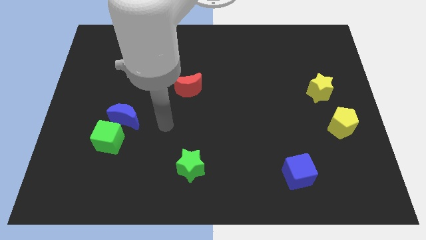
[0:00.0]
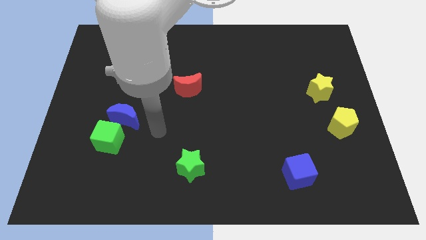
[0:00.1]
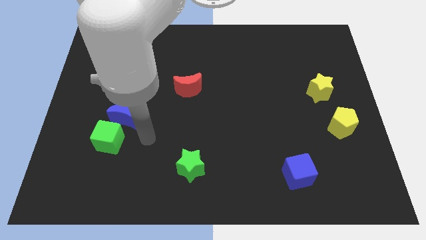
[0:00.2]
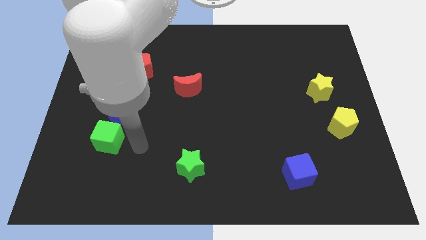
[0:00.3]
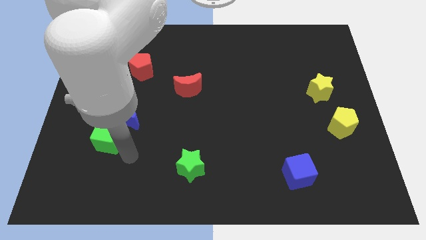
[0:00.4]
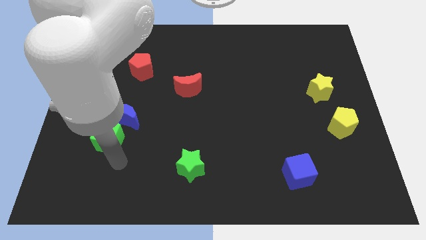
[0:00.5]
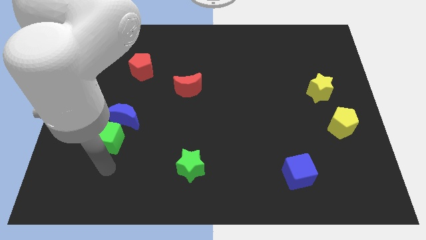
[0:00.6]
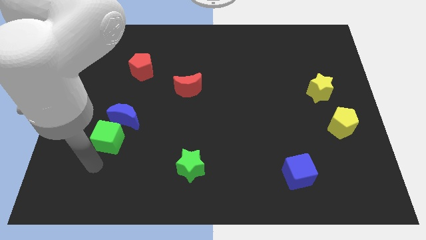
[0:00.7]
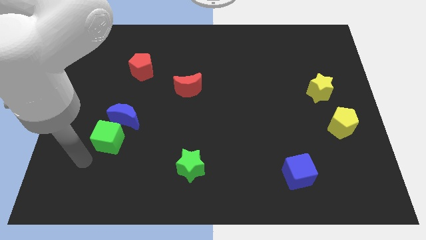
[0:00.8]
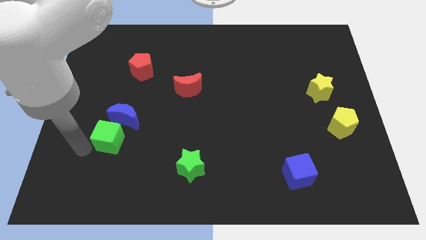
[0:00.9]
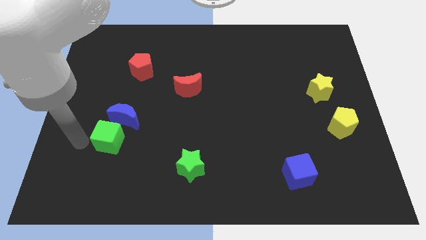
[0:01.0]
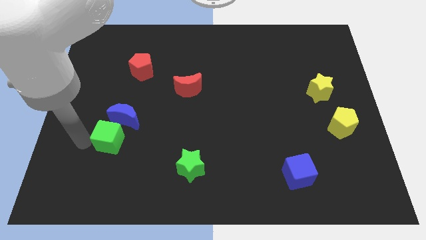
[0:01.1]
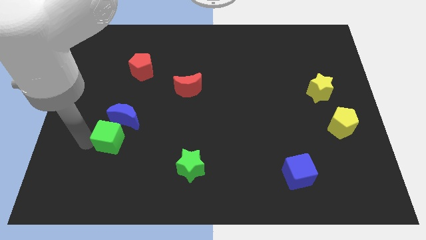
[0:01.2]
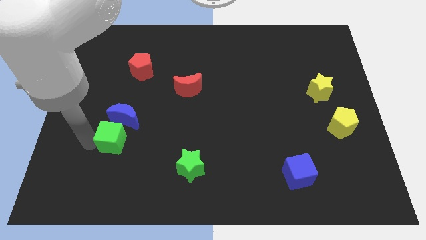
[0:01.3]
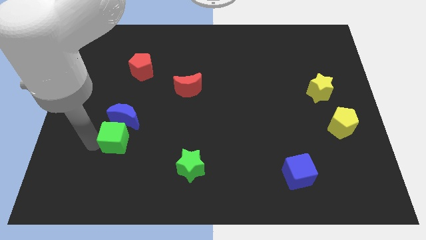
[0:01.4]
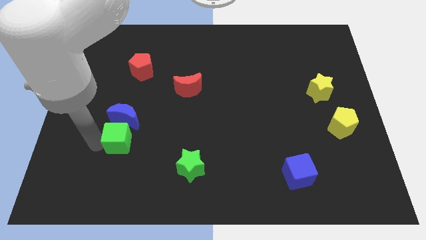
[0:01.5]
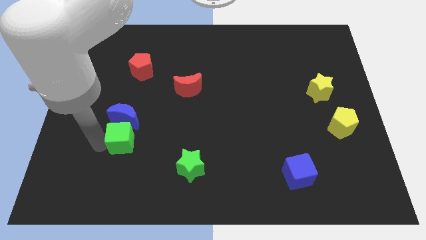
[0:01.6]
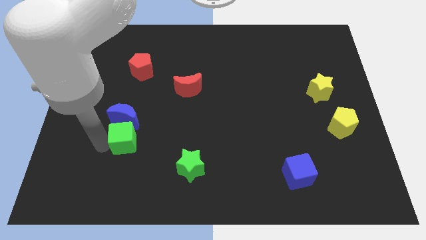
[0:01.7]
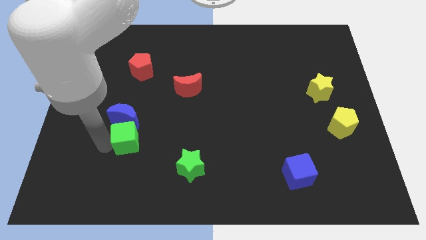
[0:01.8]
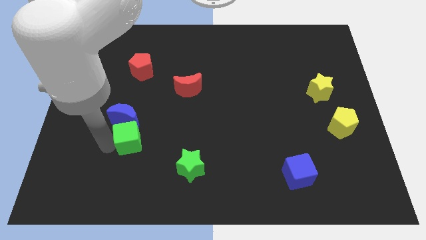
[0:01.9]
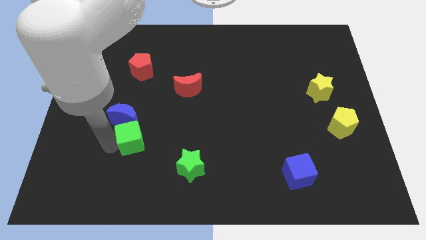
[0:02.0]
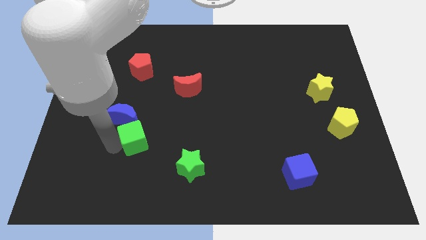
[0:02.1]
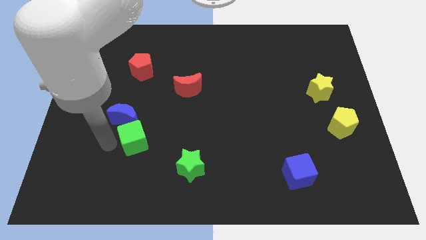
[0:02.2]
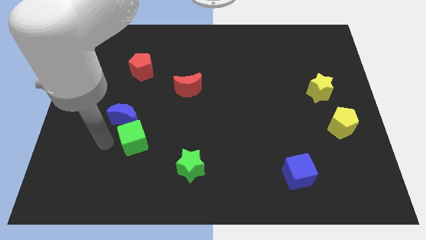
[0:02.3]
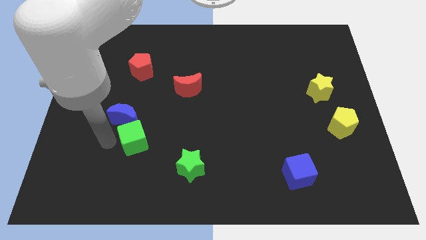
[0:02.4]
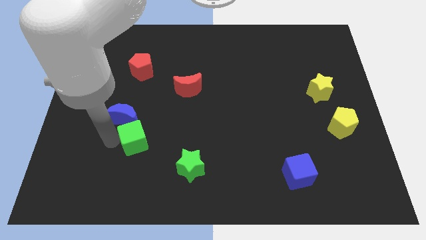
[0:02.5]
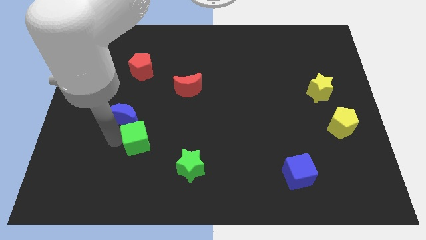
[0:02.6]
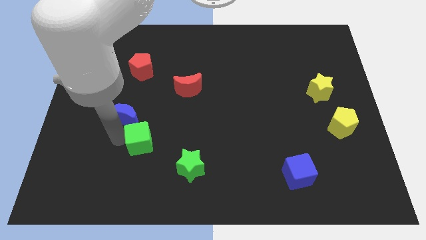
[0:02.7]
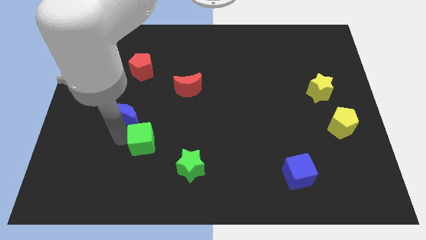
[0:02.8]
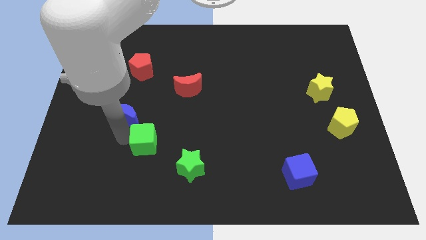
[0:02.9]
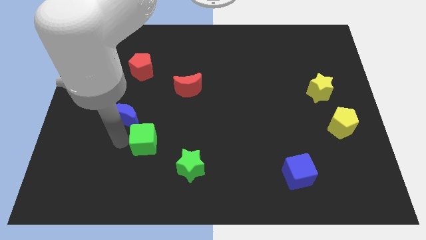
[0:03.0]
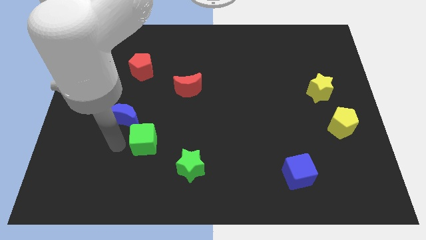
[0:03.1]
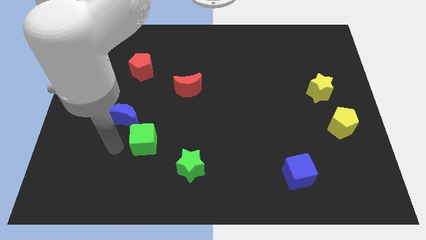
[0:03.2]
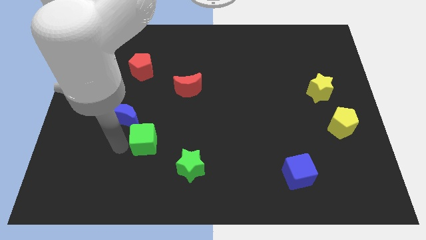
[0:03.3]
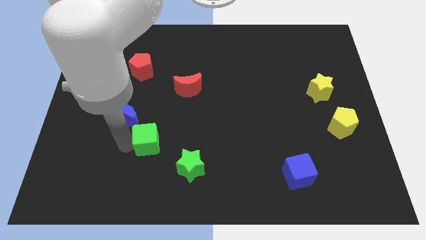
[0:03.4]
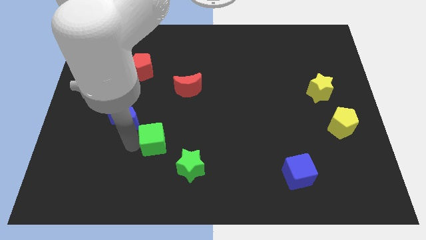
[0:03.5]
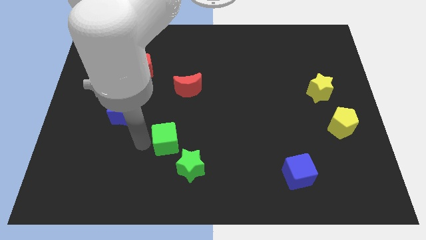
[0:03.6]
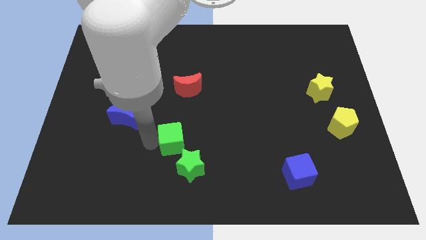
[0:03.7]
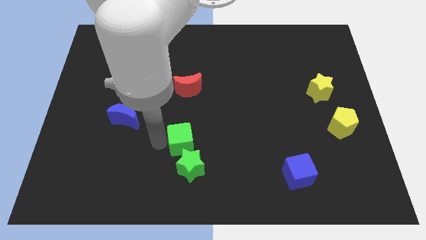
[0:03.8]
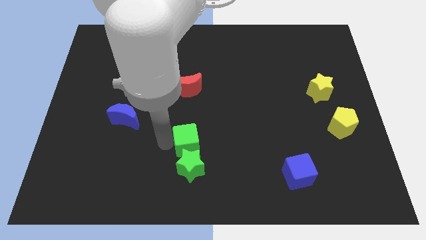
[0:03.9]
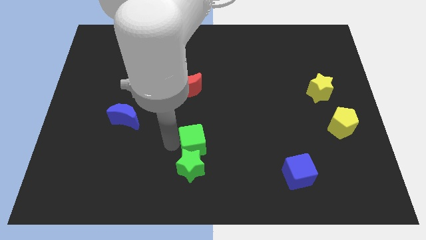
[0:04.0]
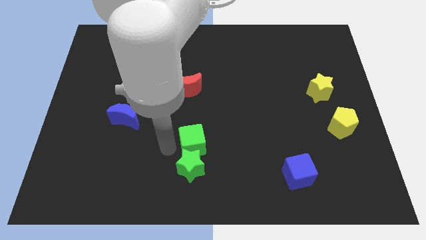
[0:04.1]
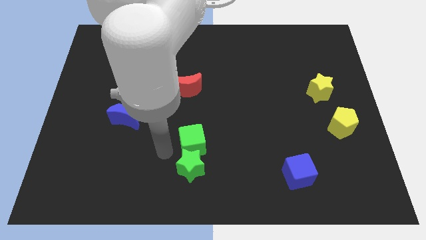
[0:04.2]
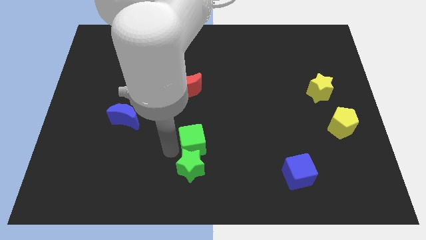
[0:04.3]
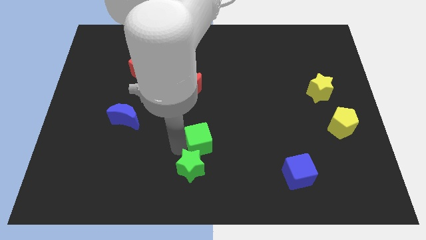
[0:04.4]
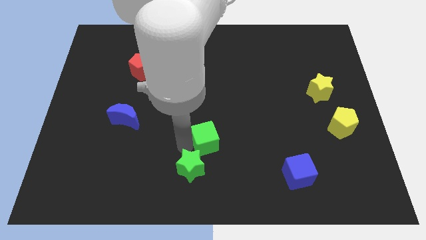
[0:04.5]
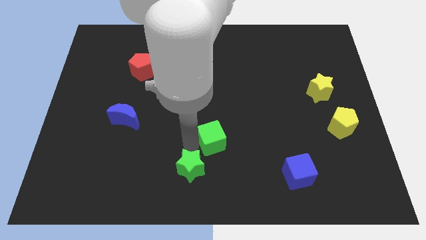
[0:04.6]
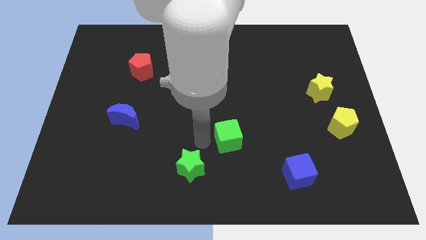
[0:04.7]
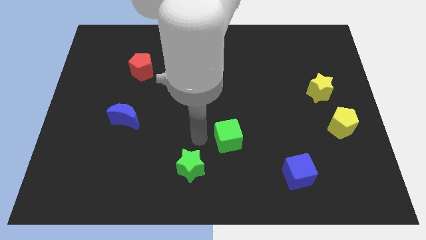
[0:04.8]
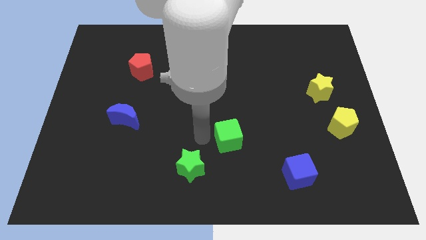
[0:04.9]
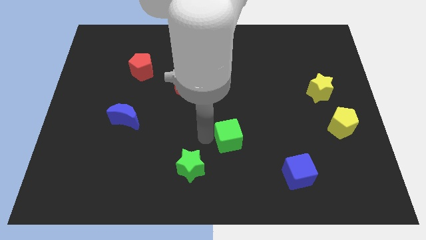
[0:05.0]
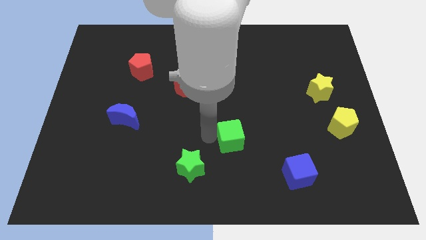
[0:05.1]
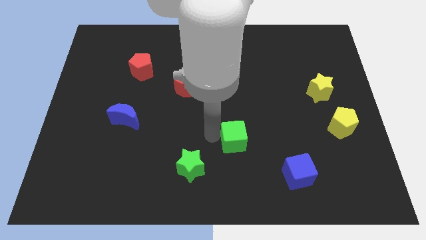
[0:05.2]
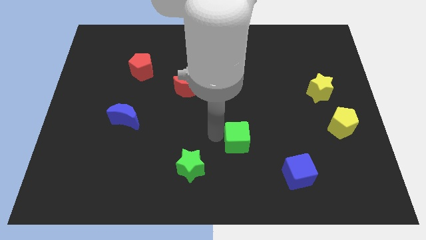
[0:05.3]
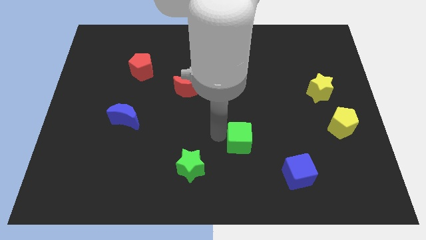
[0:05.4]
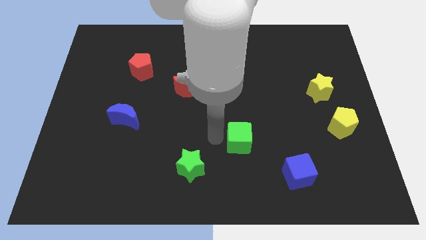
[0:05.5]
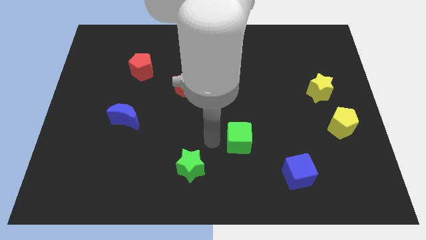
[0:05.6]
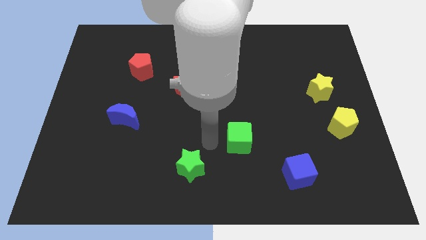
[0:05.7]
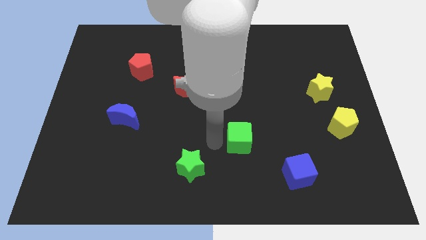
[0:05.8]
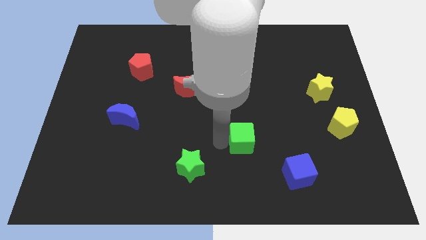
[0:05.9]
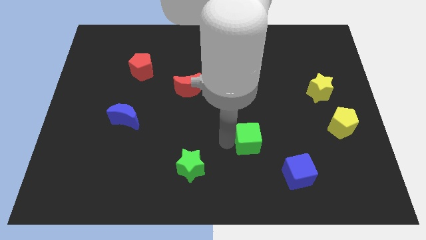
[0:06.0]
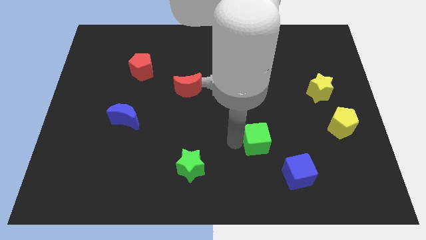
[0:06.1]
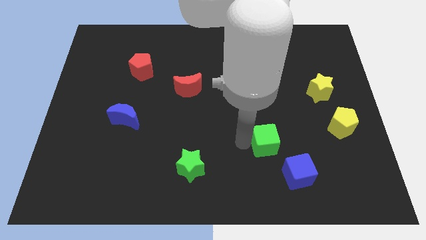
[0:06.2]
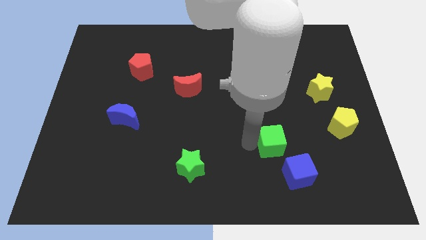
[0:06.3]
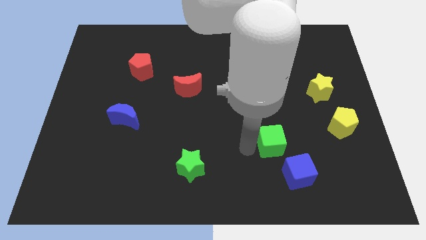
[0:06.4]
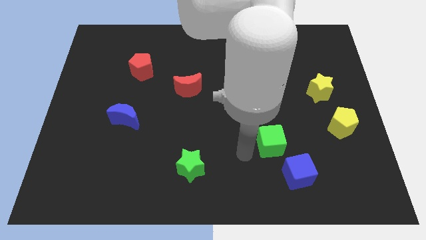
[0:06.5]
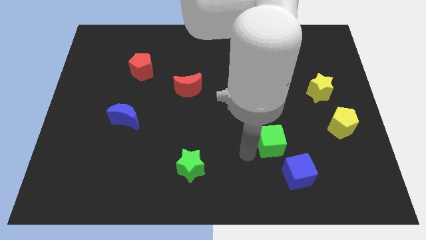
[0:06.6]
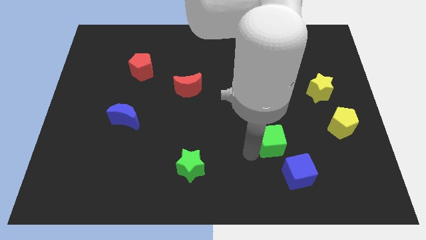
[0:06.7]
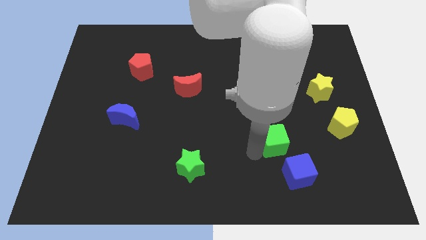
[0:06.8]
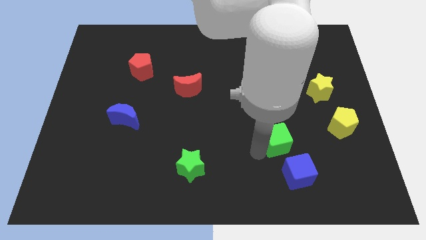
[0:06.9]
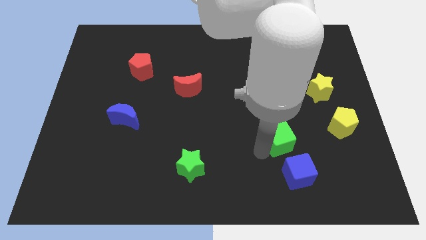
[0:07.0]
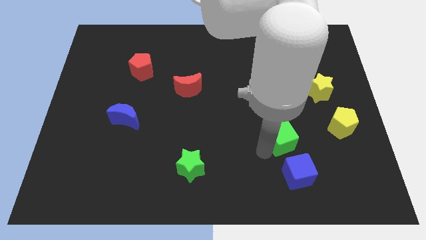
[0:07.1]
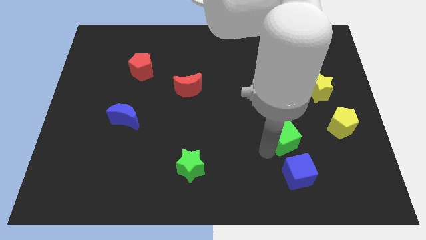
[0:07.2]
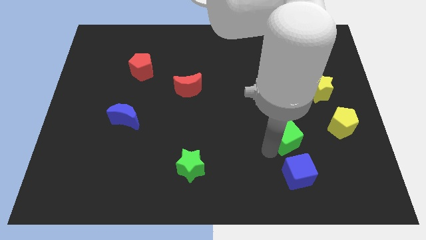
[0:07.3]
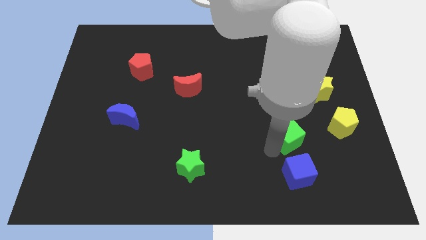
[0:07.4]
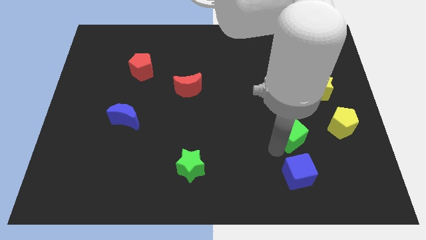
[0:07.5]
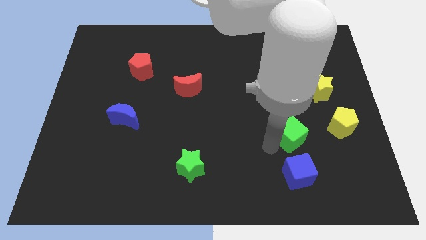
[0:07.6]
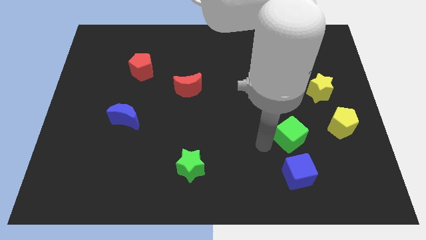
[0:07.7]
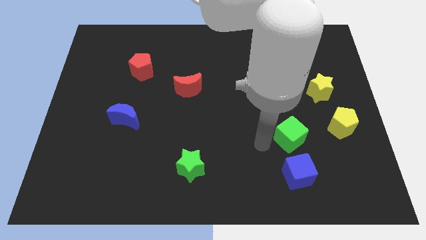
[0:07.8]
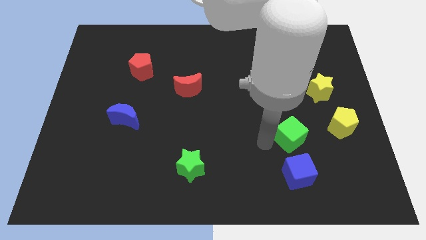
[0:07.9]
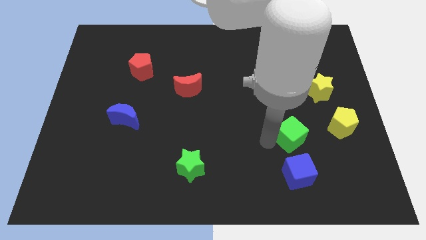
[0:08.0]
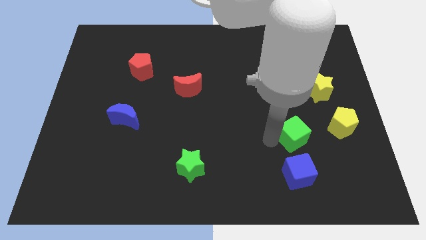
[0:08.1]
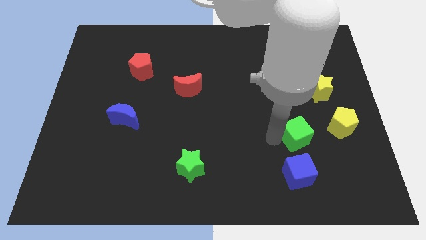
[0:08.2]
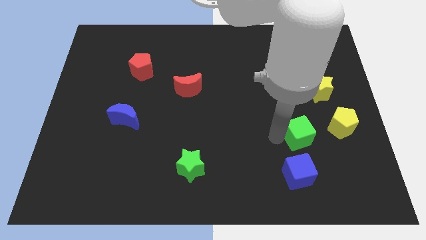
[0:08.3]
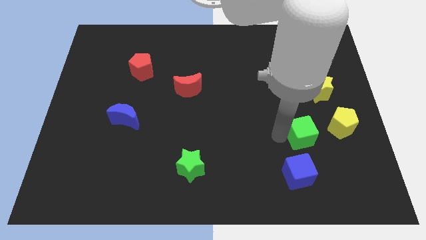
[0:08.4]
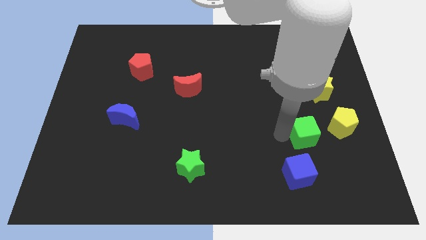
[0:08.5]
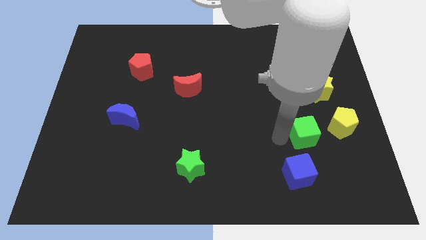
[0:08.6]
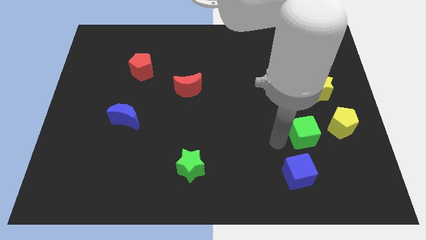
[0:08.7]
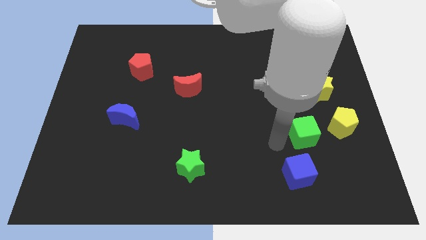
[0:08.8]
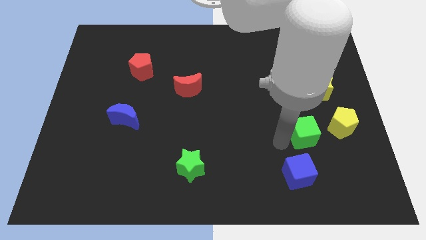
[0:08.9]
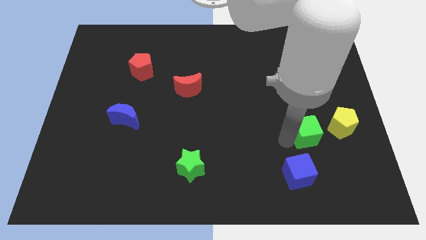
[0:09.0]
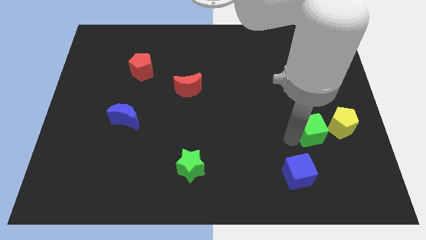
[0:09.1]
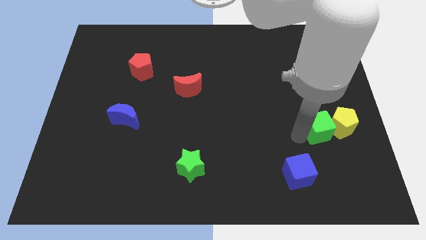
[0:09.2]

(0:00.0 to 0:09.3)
slide the green cube close to the yellow pentagon
